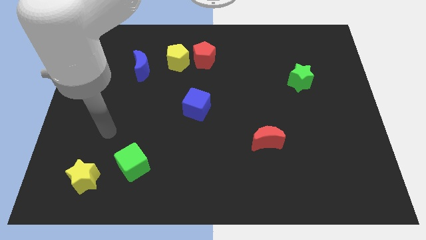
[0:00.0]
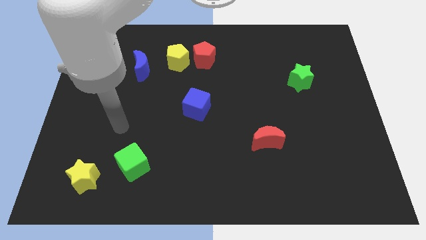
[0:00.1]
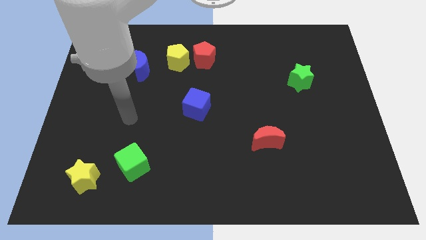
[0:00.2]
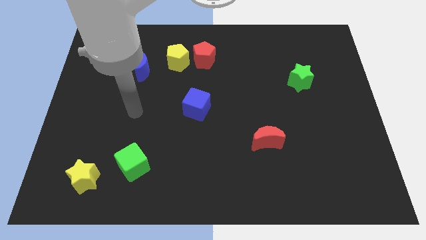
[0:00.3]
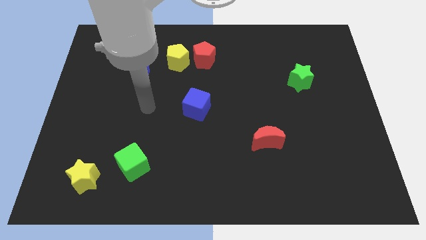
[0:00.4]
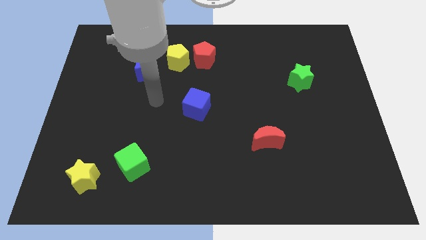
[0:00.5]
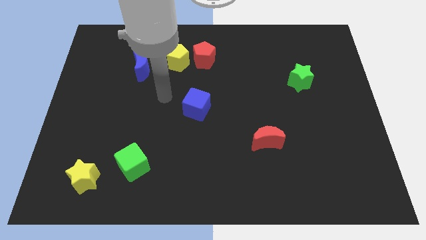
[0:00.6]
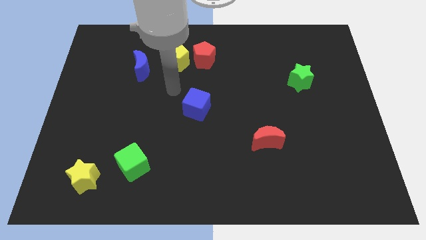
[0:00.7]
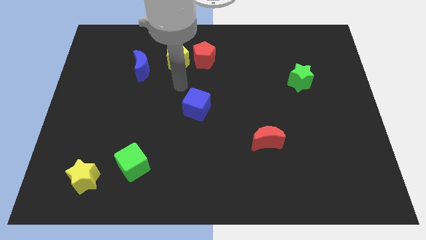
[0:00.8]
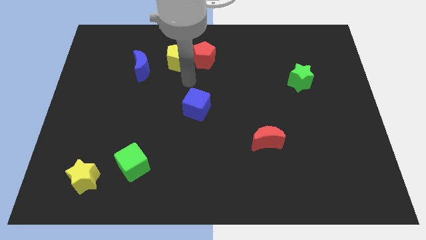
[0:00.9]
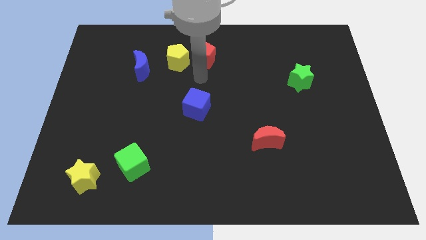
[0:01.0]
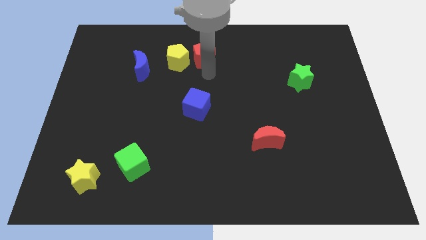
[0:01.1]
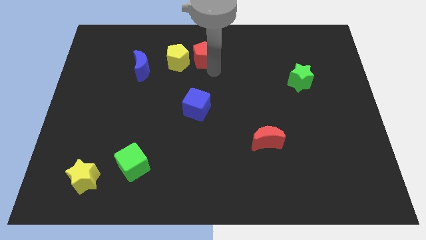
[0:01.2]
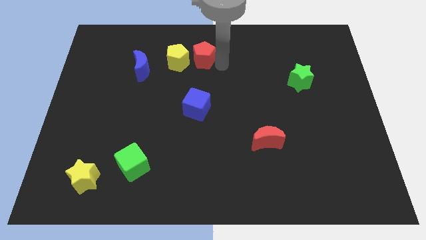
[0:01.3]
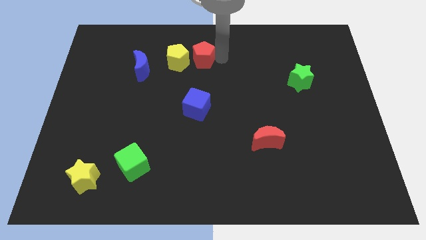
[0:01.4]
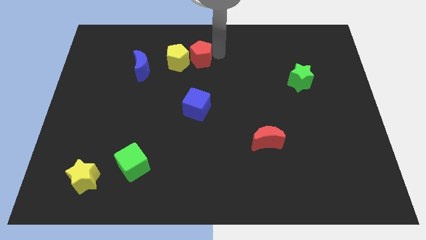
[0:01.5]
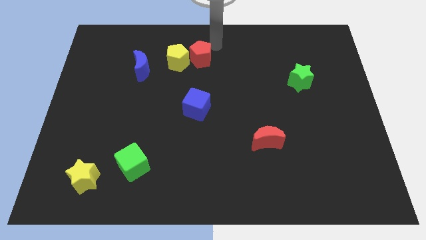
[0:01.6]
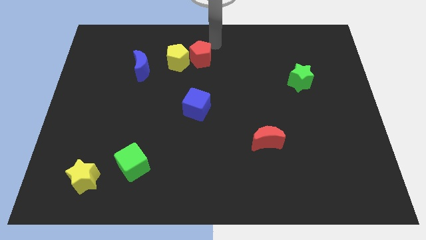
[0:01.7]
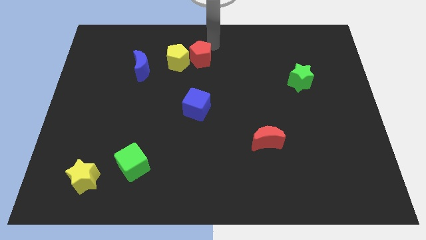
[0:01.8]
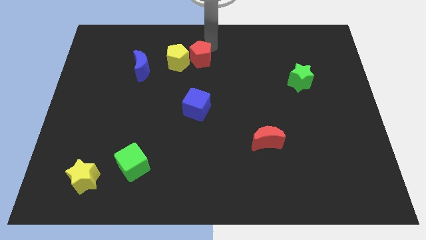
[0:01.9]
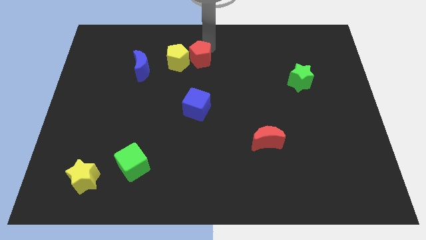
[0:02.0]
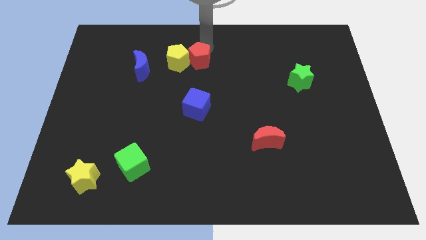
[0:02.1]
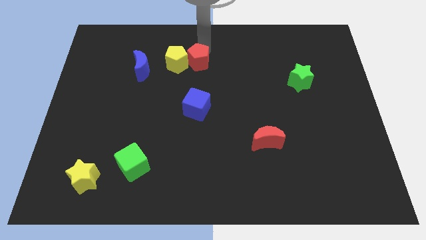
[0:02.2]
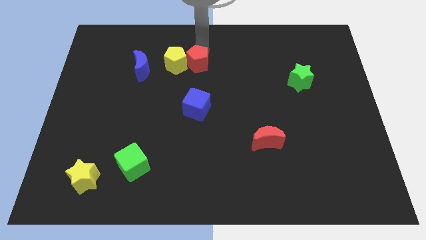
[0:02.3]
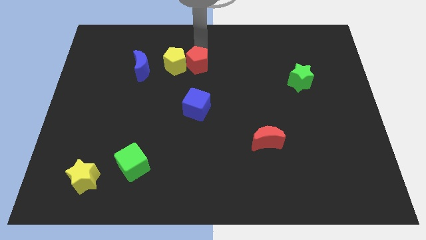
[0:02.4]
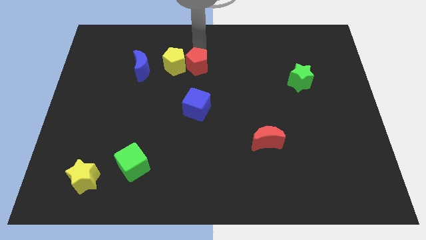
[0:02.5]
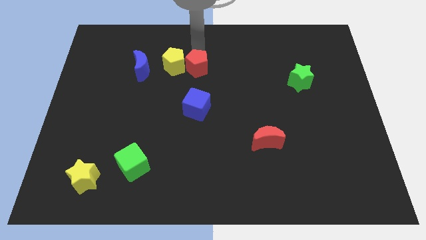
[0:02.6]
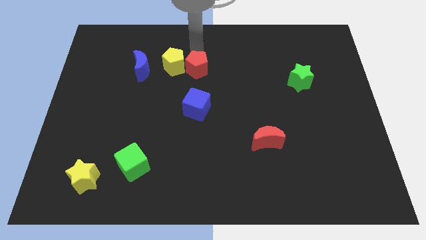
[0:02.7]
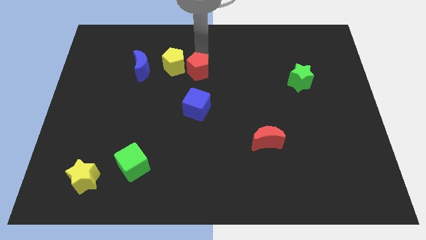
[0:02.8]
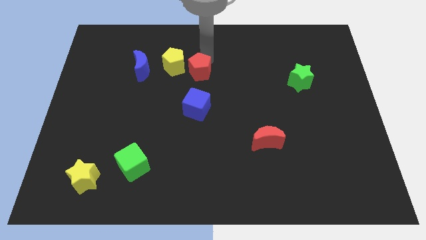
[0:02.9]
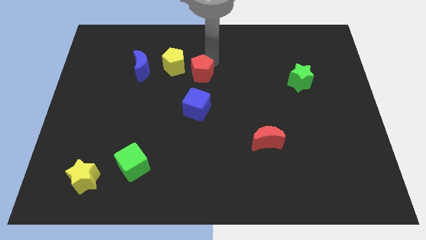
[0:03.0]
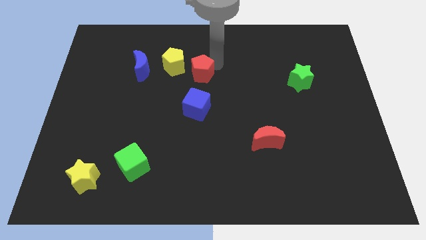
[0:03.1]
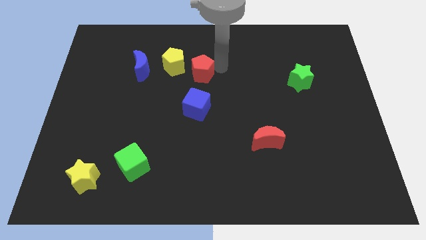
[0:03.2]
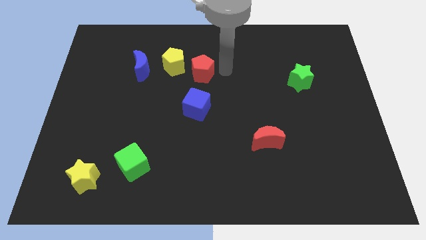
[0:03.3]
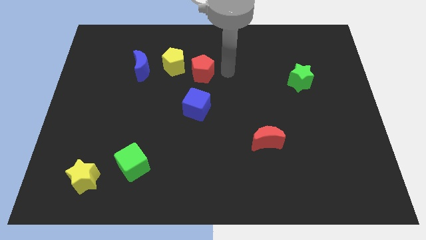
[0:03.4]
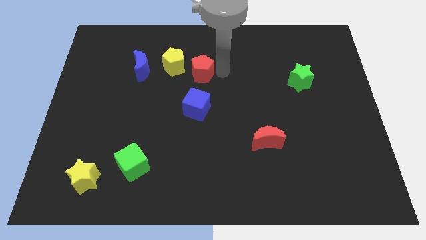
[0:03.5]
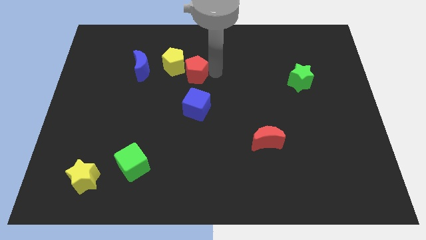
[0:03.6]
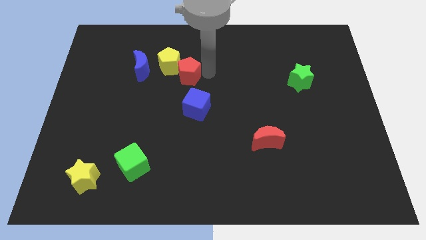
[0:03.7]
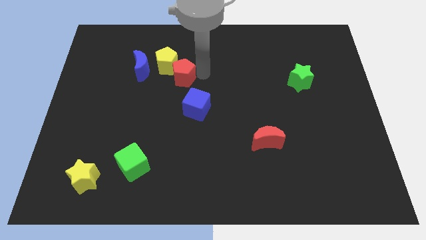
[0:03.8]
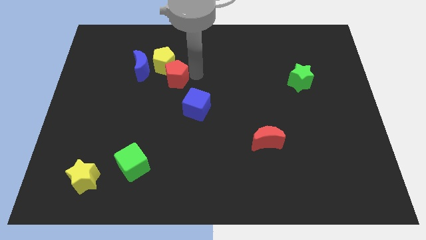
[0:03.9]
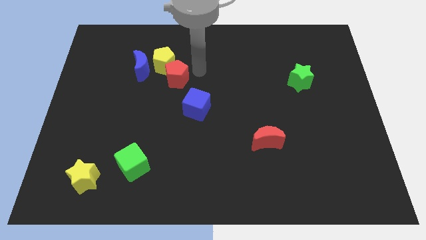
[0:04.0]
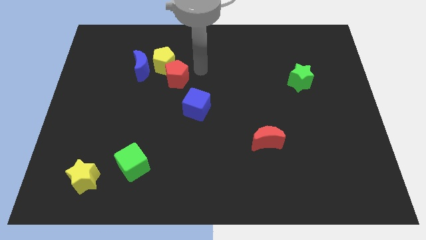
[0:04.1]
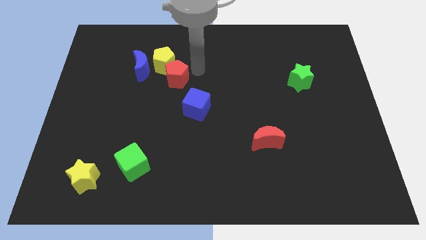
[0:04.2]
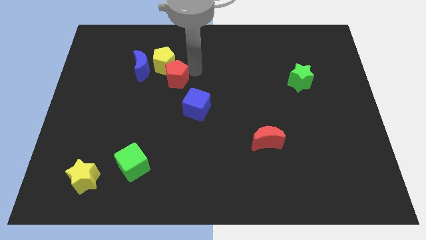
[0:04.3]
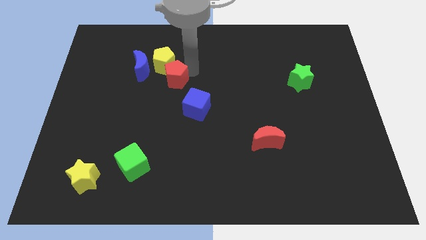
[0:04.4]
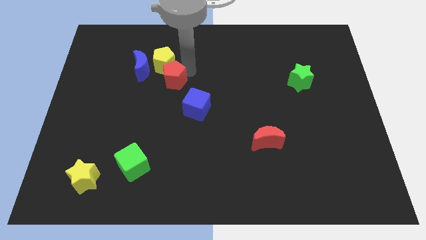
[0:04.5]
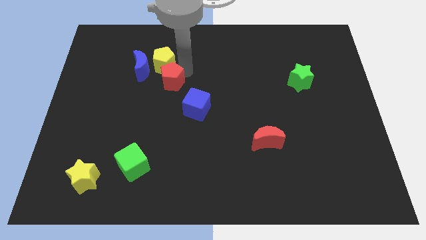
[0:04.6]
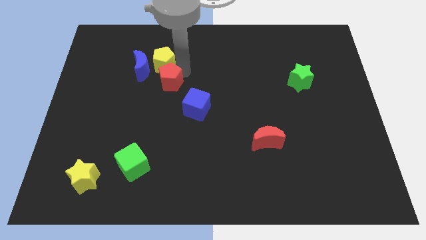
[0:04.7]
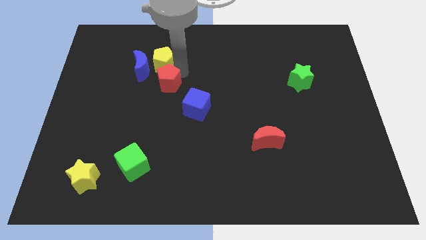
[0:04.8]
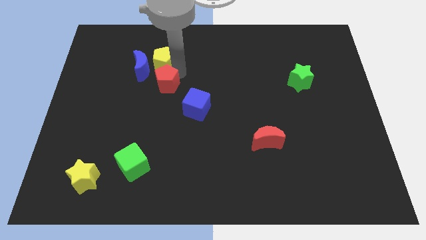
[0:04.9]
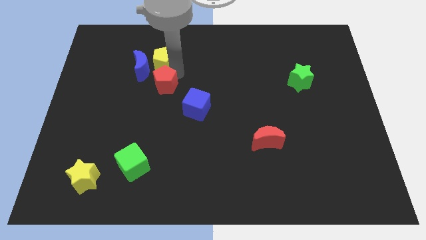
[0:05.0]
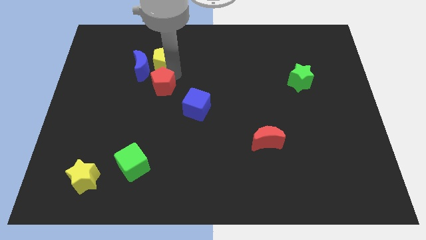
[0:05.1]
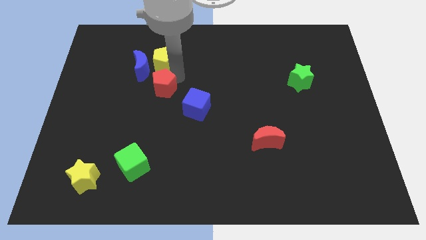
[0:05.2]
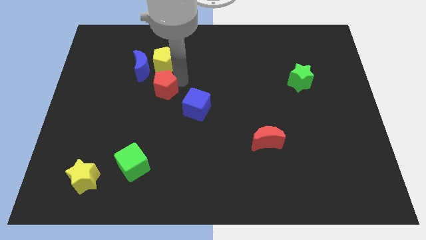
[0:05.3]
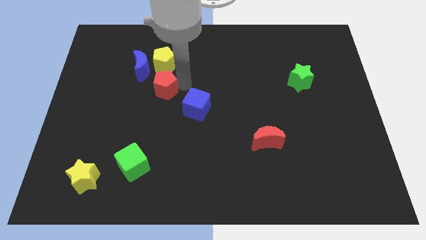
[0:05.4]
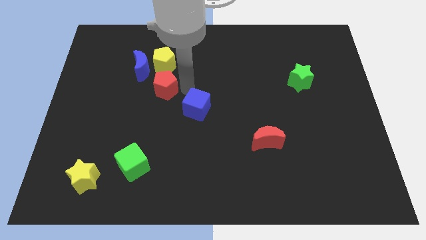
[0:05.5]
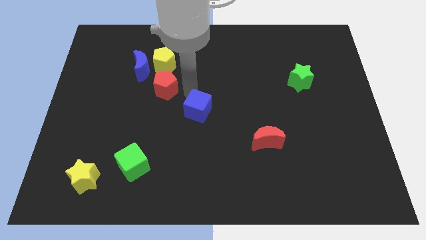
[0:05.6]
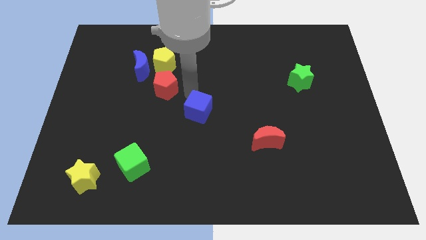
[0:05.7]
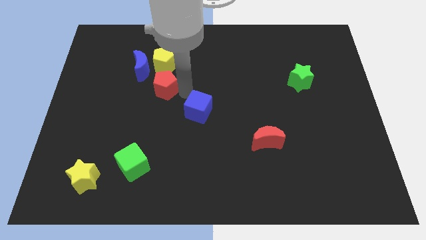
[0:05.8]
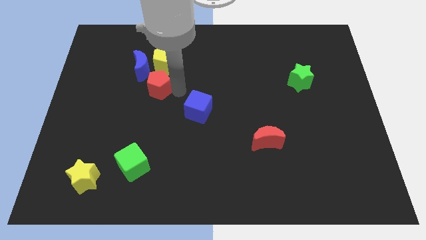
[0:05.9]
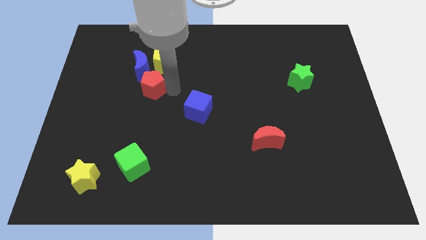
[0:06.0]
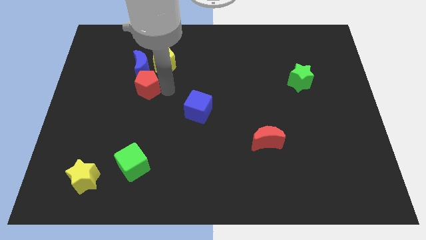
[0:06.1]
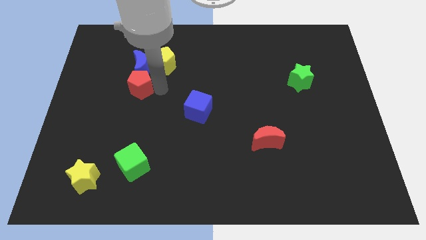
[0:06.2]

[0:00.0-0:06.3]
put the red pentagon to the bottom left of the blue moon
